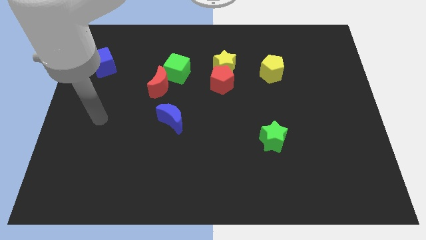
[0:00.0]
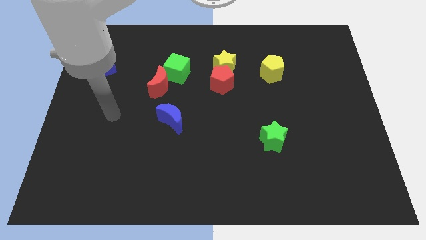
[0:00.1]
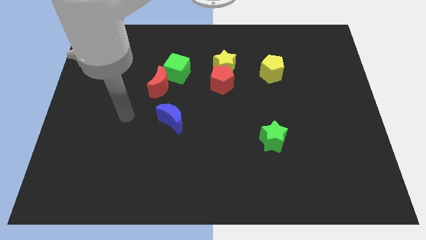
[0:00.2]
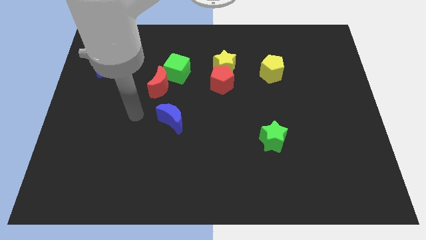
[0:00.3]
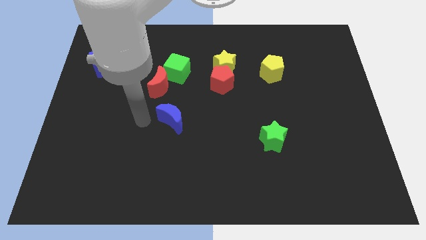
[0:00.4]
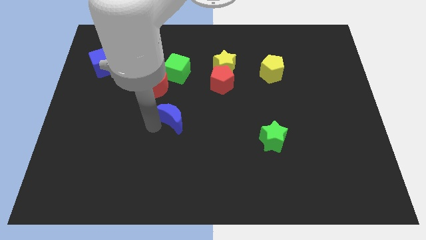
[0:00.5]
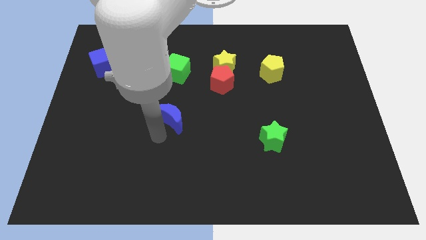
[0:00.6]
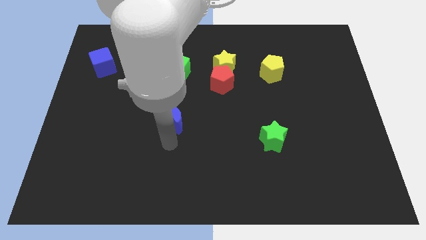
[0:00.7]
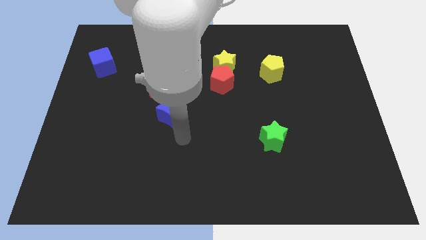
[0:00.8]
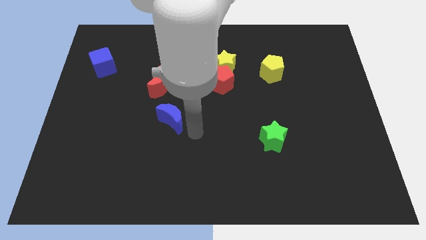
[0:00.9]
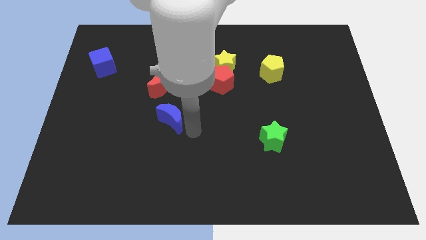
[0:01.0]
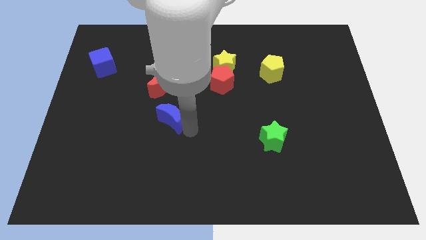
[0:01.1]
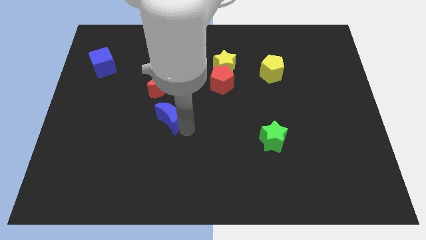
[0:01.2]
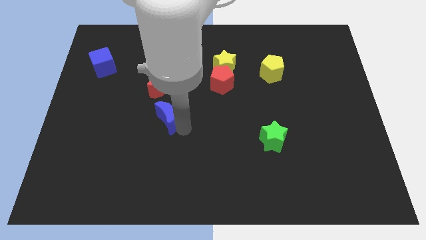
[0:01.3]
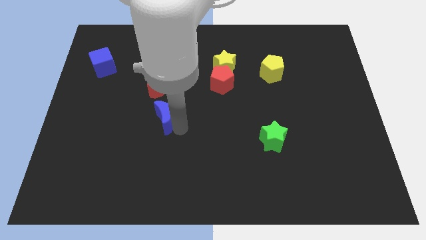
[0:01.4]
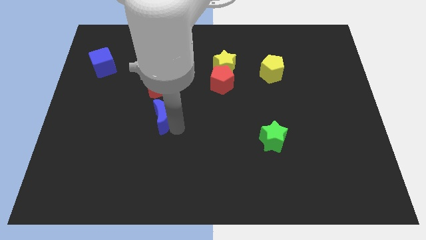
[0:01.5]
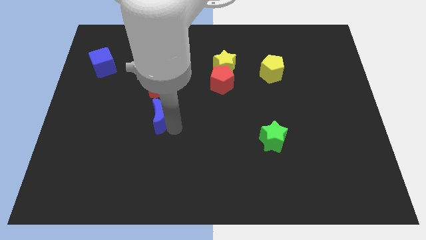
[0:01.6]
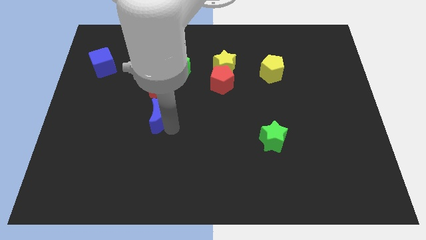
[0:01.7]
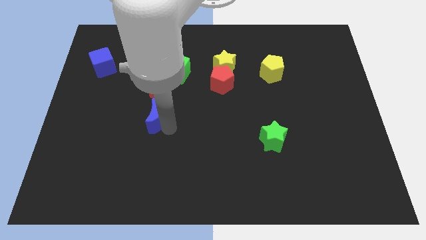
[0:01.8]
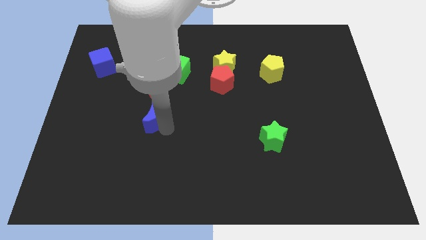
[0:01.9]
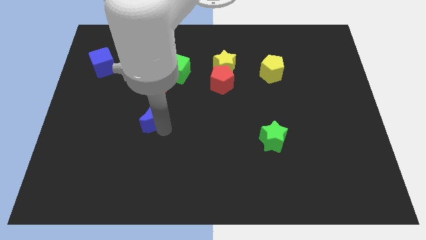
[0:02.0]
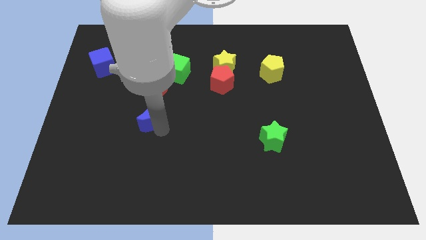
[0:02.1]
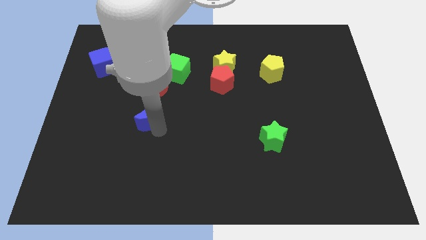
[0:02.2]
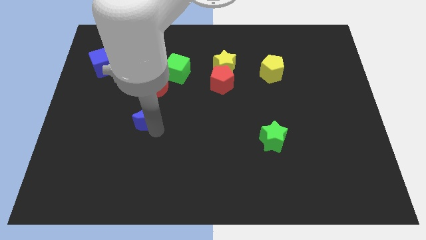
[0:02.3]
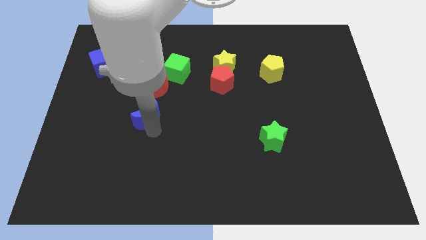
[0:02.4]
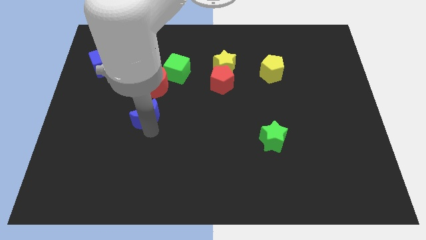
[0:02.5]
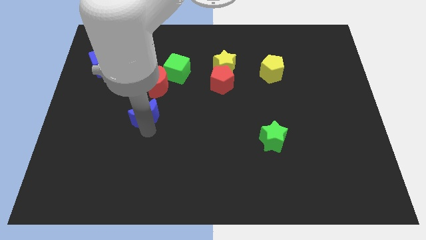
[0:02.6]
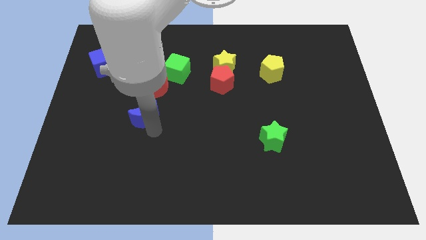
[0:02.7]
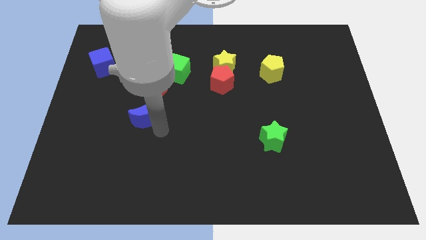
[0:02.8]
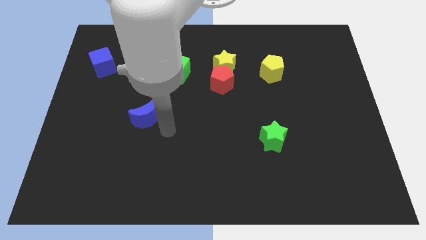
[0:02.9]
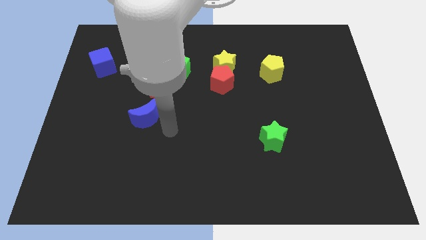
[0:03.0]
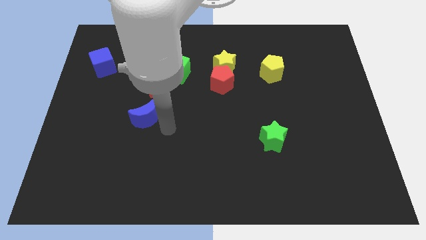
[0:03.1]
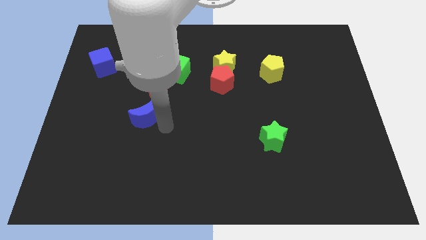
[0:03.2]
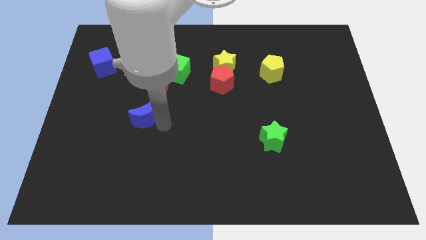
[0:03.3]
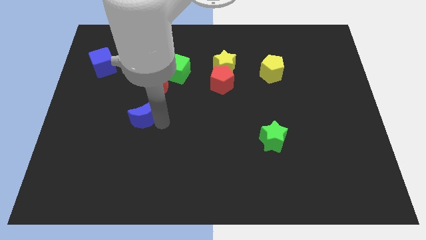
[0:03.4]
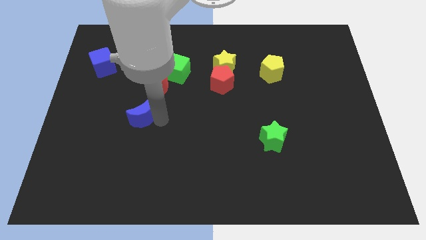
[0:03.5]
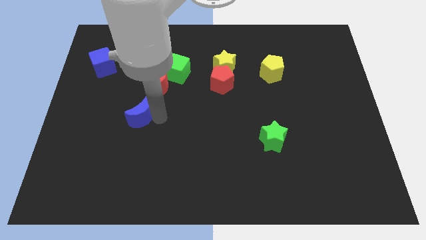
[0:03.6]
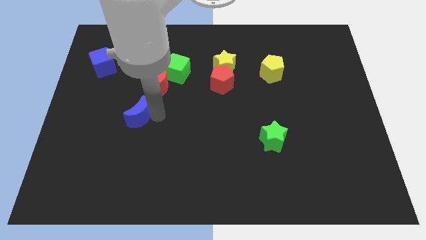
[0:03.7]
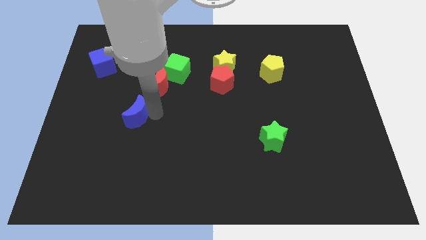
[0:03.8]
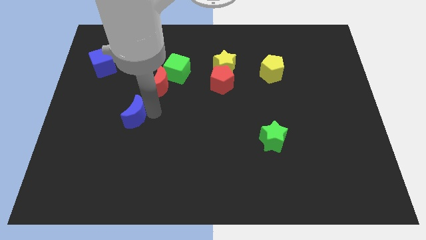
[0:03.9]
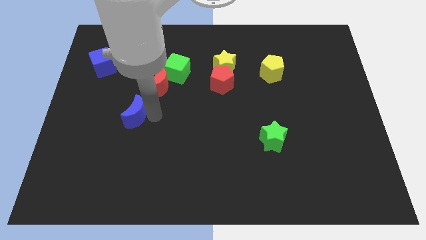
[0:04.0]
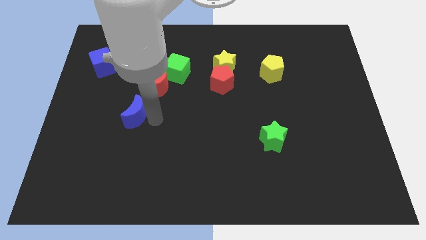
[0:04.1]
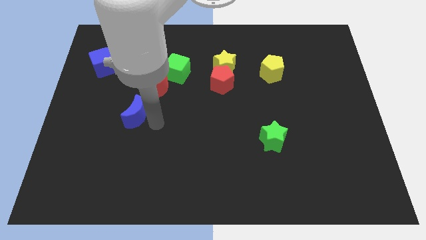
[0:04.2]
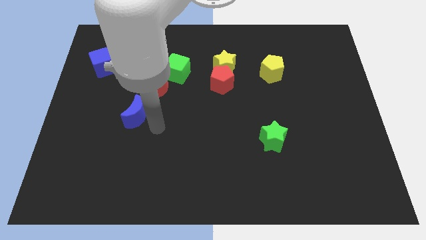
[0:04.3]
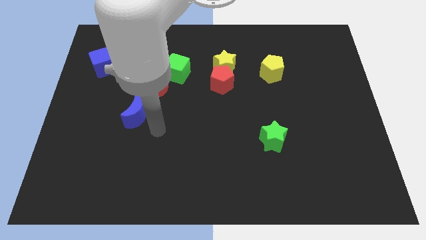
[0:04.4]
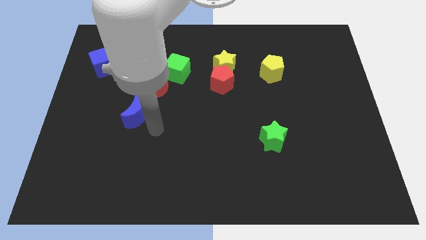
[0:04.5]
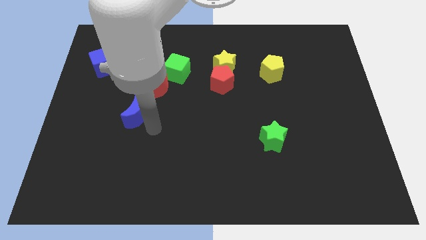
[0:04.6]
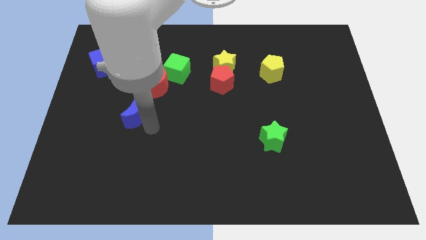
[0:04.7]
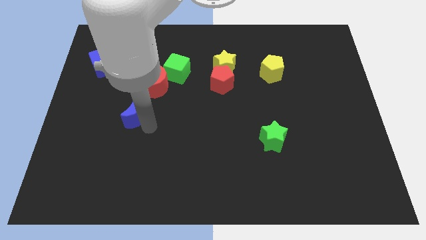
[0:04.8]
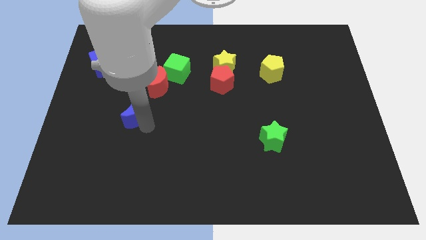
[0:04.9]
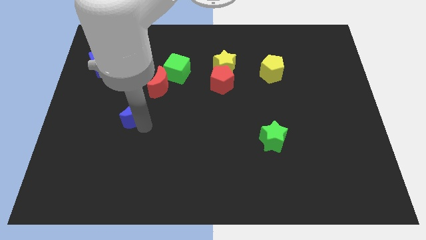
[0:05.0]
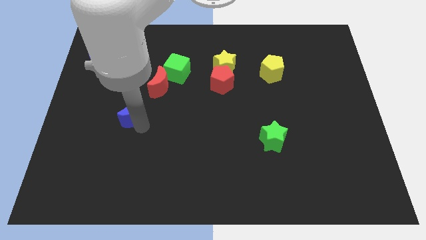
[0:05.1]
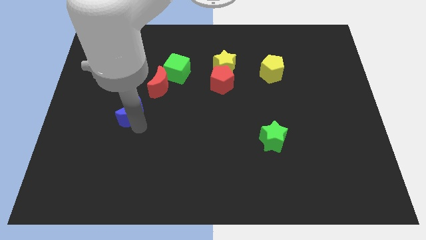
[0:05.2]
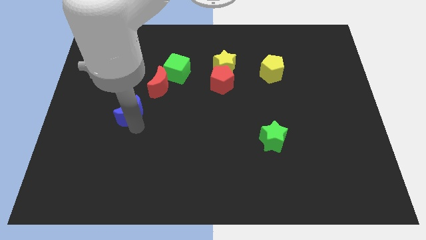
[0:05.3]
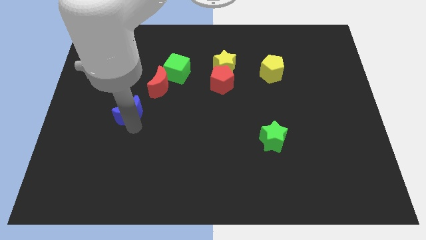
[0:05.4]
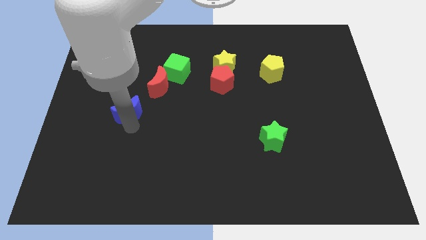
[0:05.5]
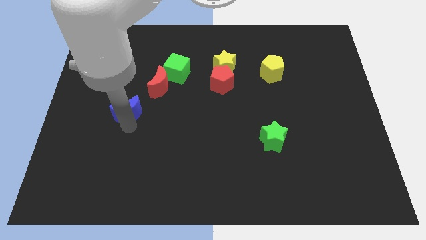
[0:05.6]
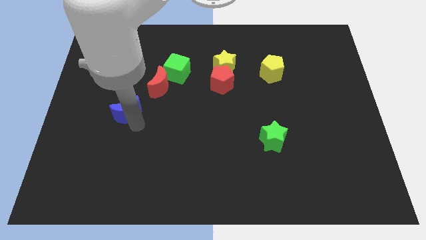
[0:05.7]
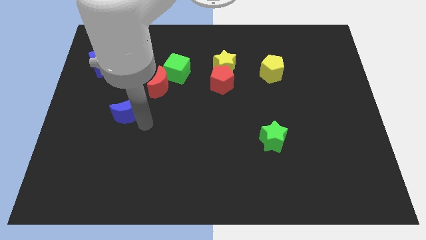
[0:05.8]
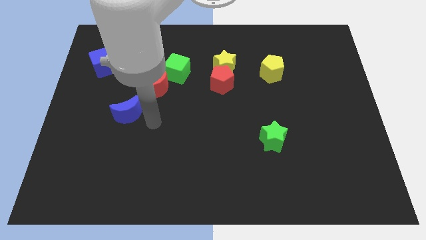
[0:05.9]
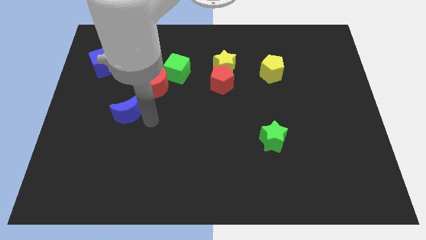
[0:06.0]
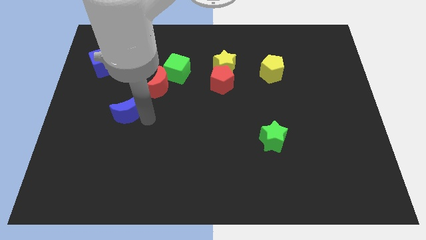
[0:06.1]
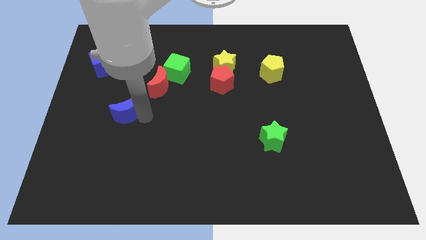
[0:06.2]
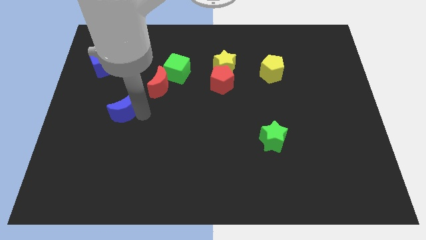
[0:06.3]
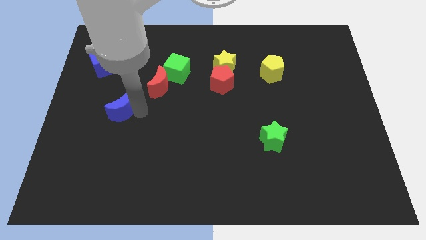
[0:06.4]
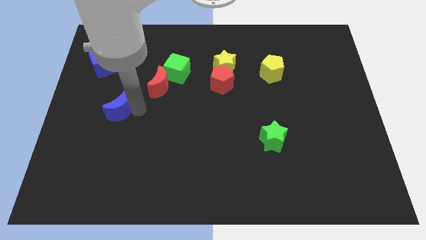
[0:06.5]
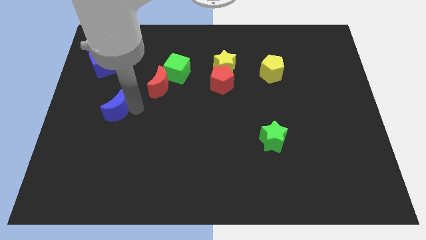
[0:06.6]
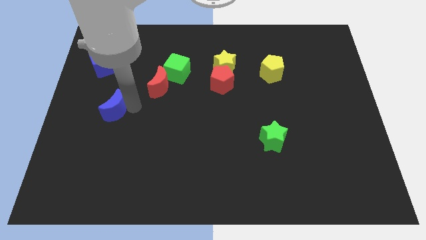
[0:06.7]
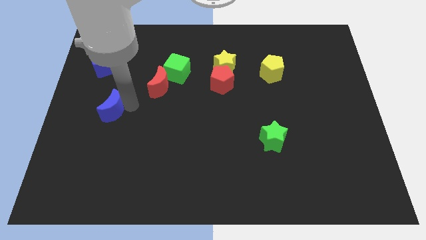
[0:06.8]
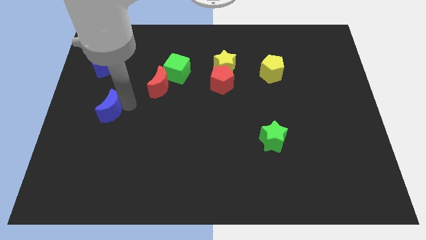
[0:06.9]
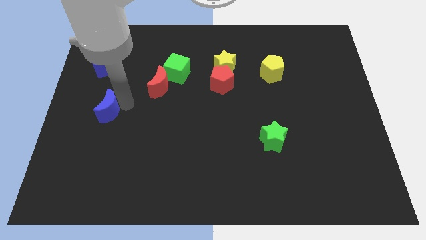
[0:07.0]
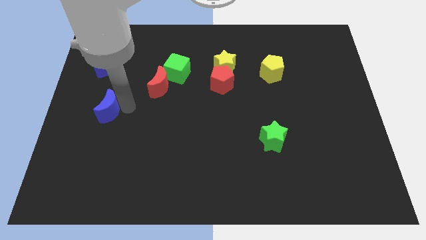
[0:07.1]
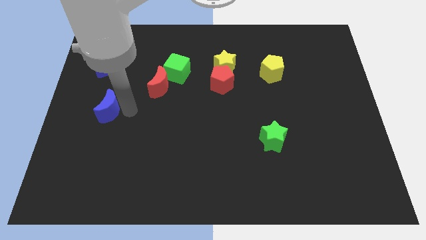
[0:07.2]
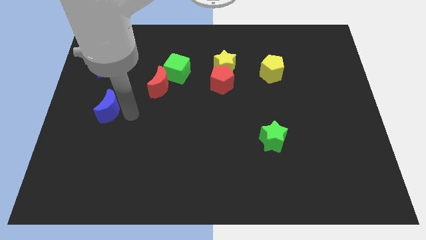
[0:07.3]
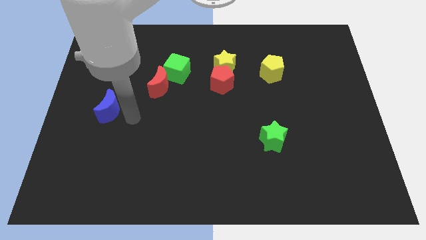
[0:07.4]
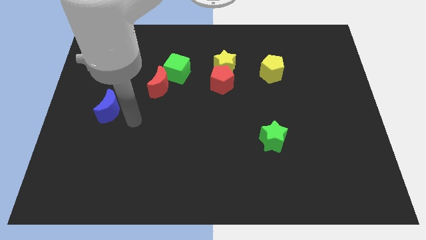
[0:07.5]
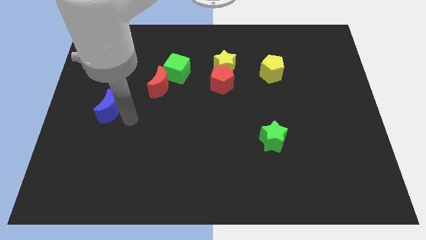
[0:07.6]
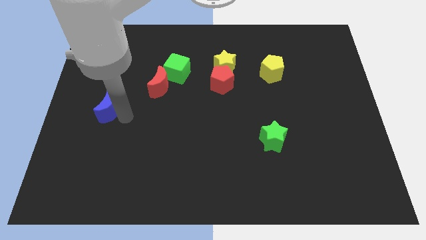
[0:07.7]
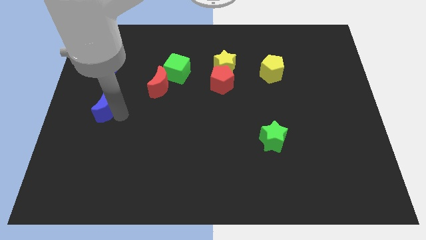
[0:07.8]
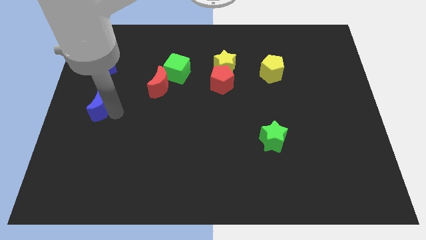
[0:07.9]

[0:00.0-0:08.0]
push the blue moon to the center left
